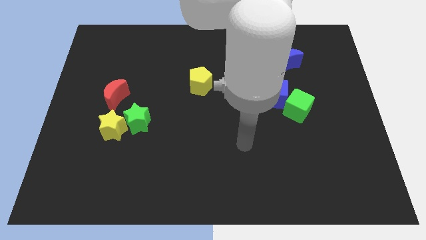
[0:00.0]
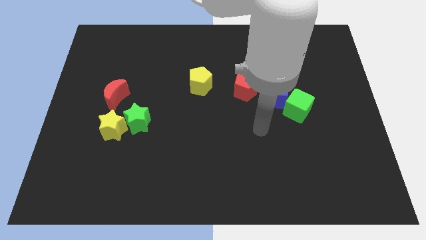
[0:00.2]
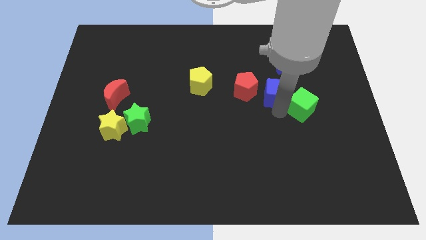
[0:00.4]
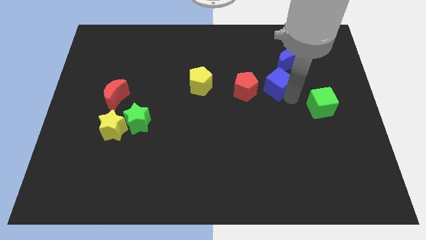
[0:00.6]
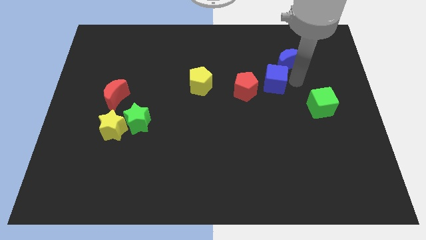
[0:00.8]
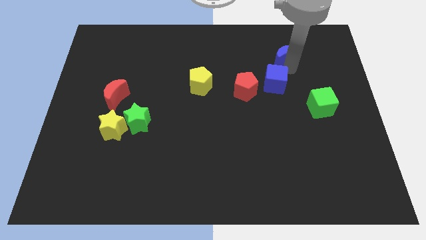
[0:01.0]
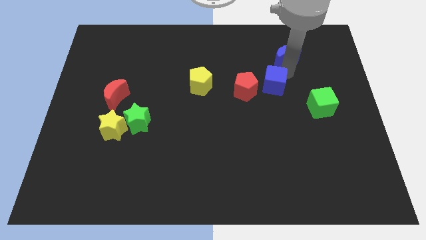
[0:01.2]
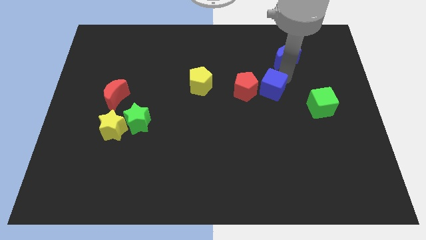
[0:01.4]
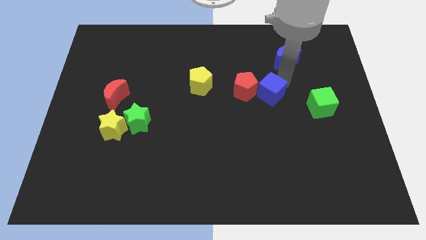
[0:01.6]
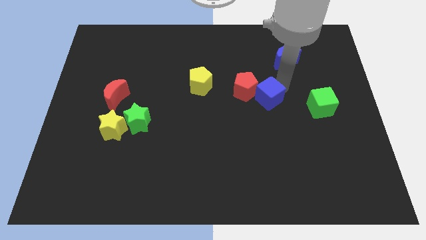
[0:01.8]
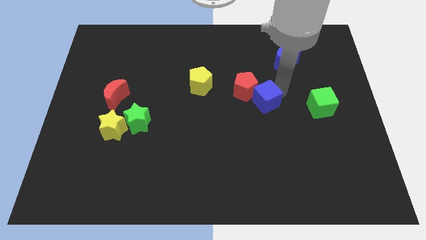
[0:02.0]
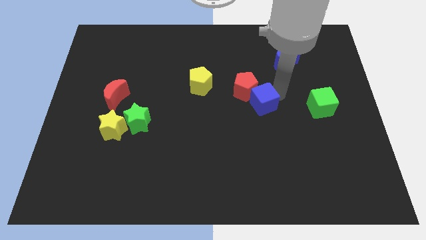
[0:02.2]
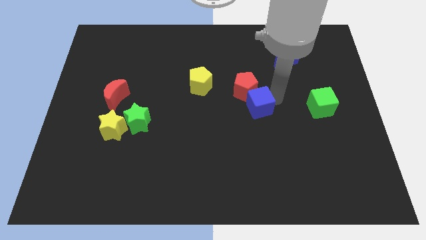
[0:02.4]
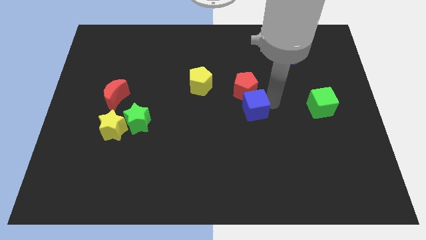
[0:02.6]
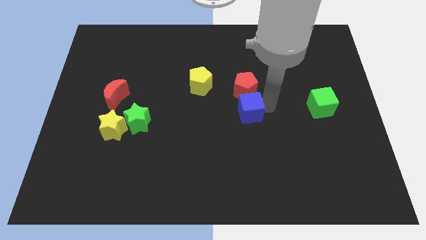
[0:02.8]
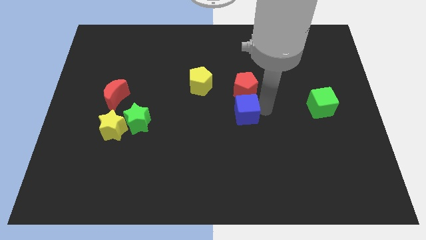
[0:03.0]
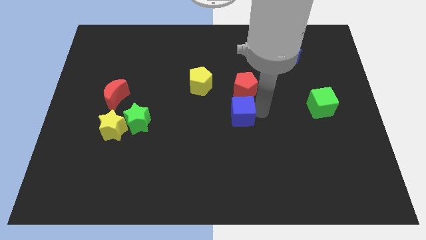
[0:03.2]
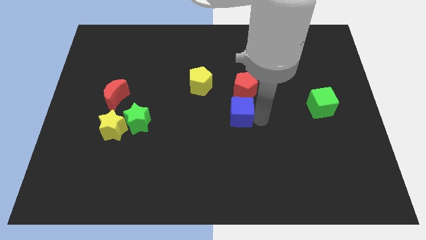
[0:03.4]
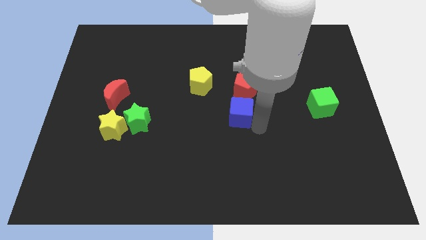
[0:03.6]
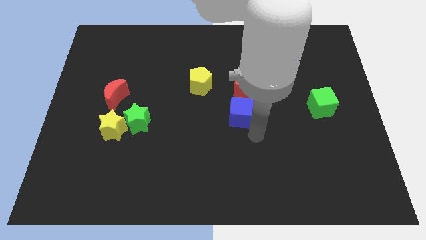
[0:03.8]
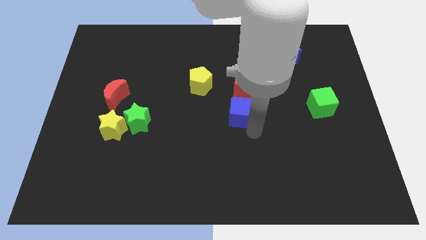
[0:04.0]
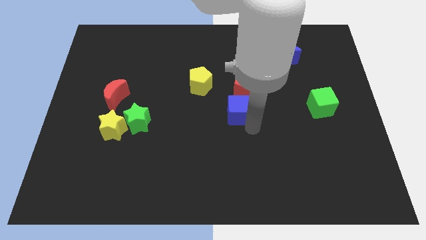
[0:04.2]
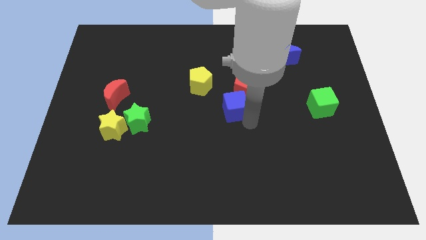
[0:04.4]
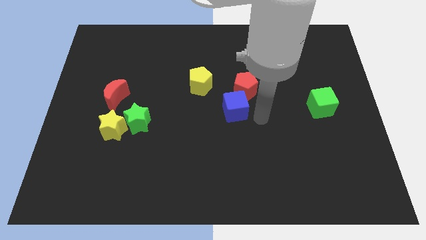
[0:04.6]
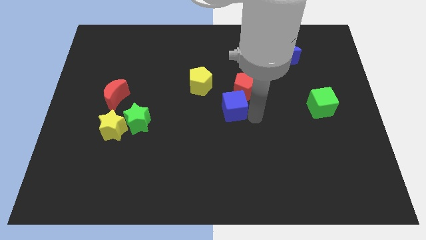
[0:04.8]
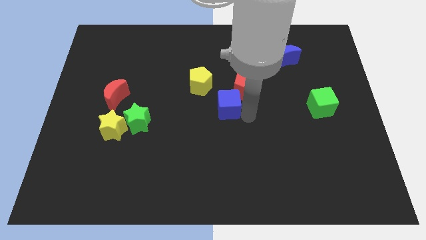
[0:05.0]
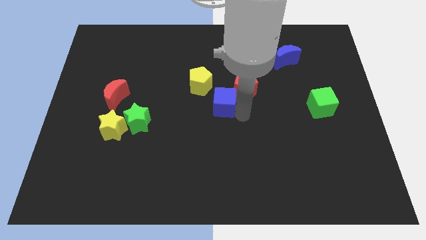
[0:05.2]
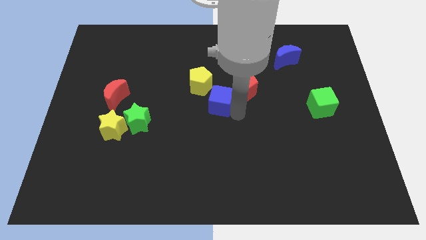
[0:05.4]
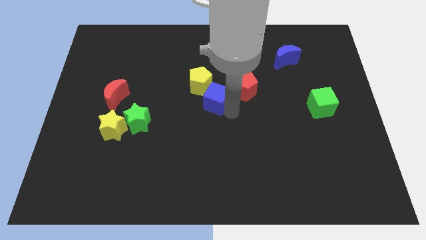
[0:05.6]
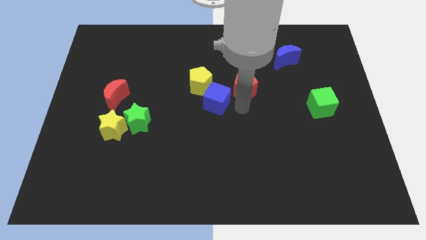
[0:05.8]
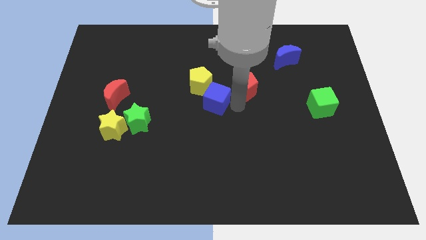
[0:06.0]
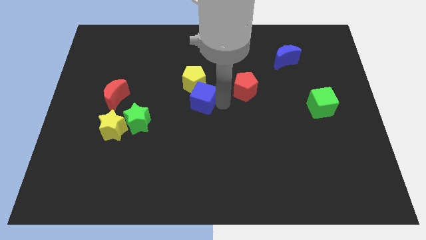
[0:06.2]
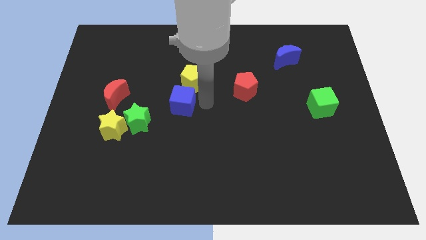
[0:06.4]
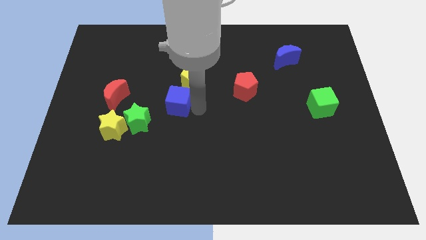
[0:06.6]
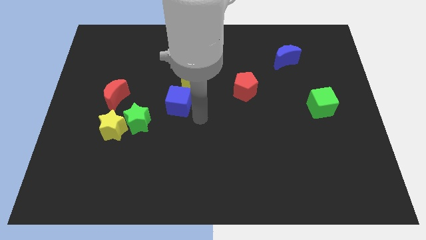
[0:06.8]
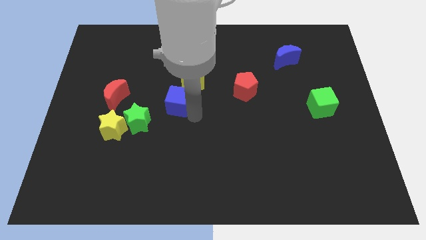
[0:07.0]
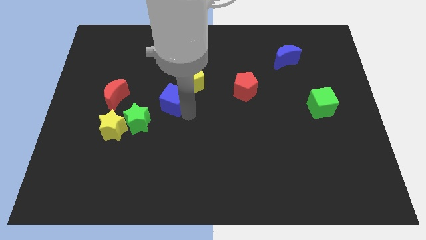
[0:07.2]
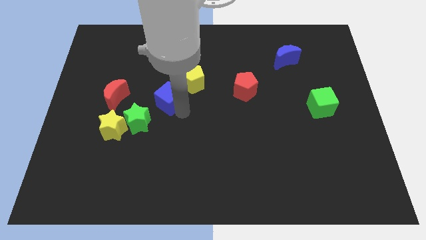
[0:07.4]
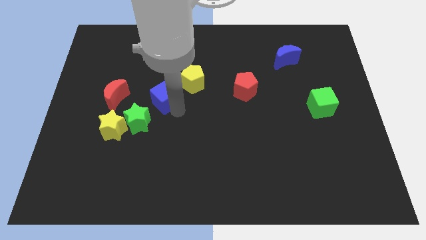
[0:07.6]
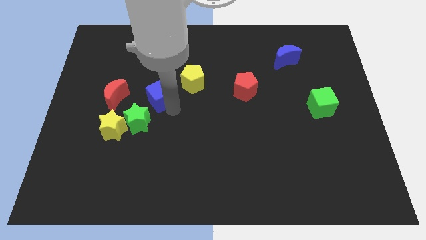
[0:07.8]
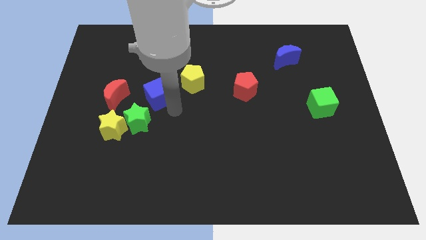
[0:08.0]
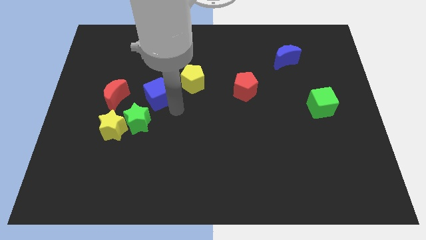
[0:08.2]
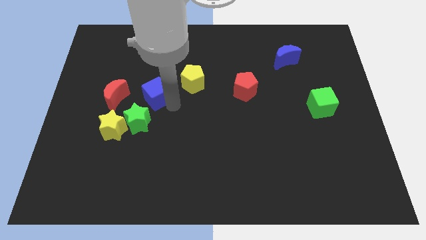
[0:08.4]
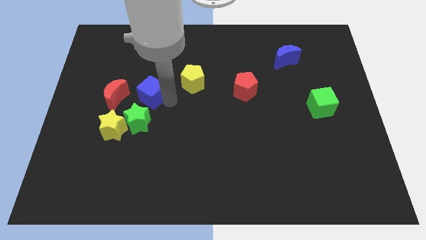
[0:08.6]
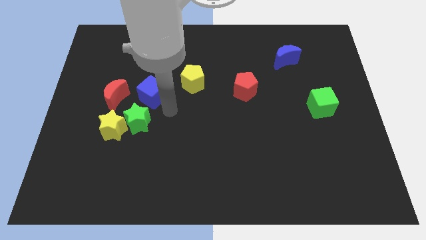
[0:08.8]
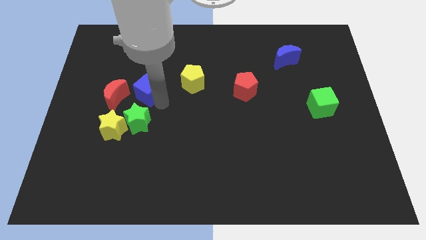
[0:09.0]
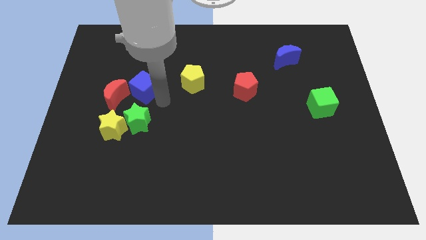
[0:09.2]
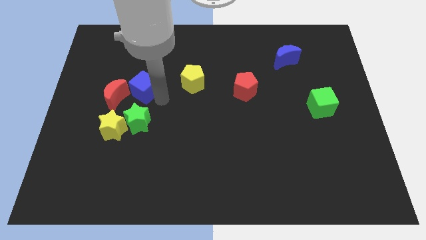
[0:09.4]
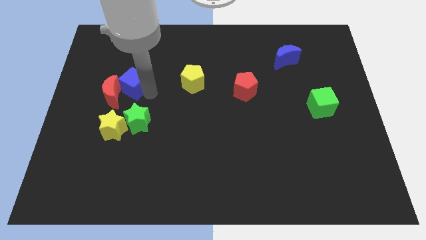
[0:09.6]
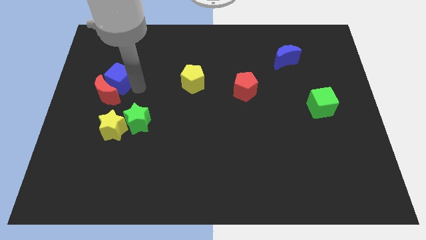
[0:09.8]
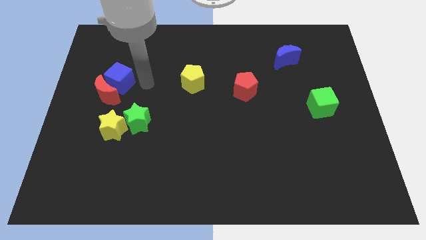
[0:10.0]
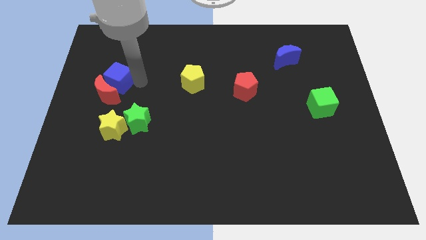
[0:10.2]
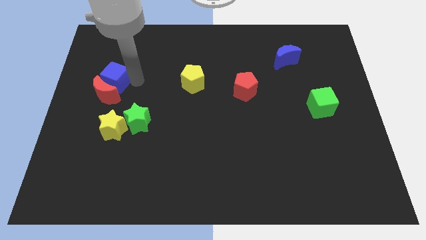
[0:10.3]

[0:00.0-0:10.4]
move the blue cube to the top left side of the red moon

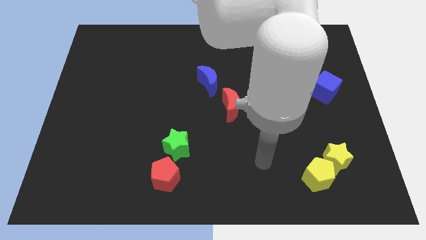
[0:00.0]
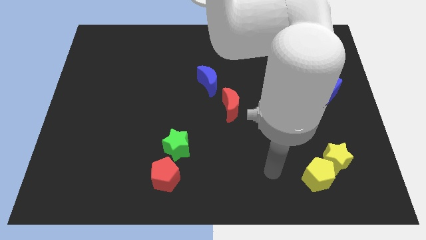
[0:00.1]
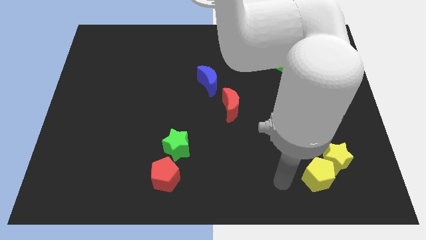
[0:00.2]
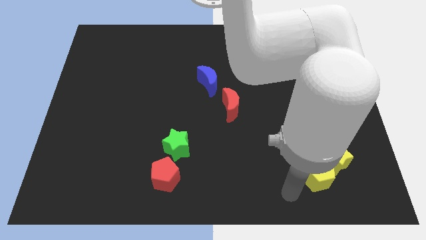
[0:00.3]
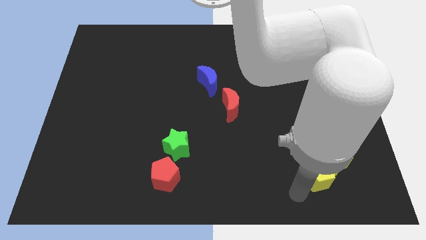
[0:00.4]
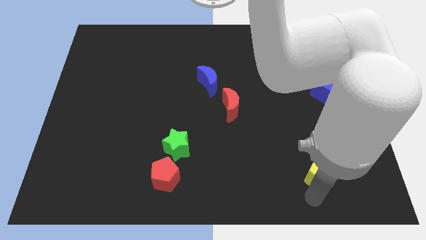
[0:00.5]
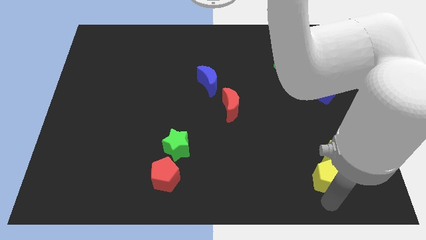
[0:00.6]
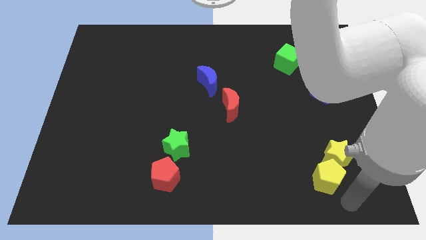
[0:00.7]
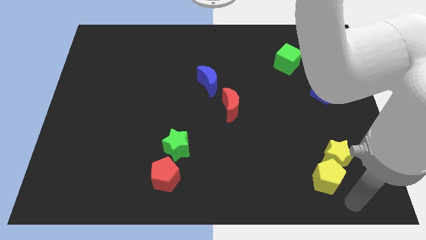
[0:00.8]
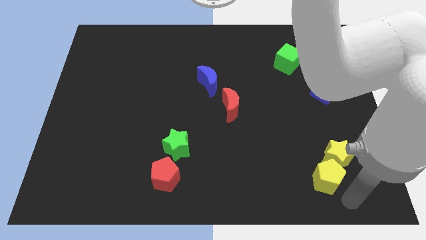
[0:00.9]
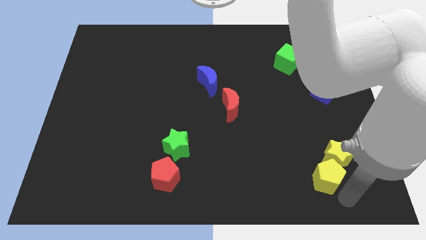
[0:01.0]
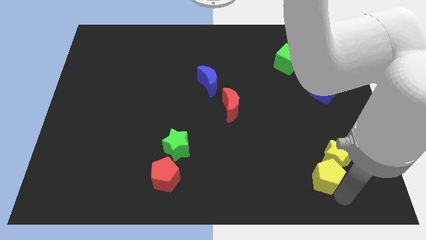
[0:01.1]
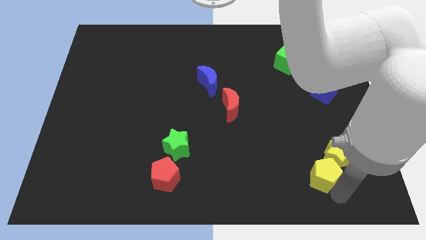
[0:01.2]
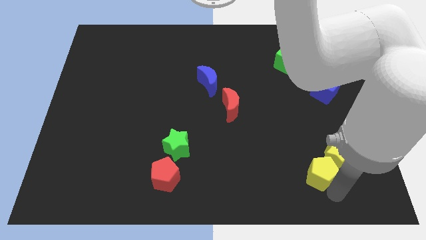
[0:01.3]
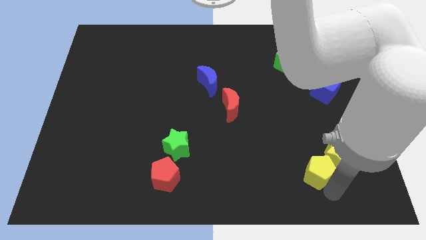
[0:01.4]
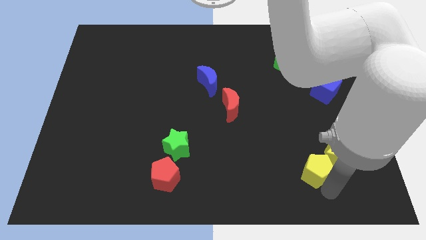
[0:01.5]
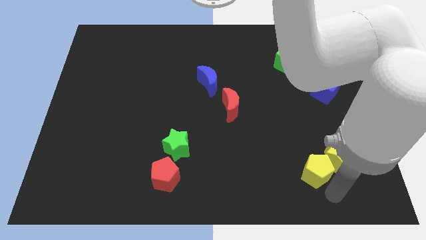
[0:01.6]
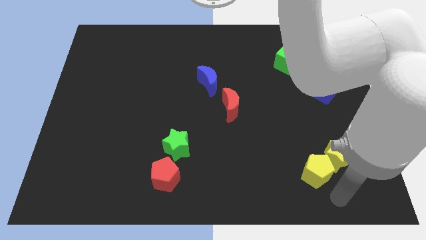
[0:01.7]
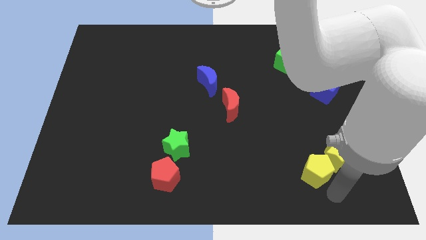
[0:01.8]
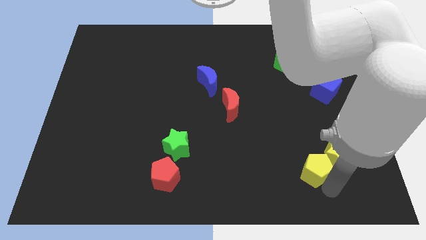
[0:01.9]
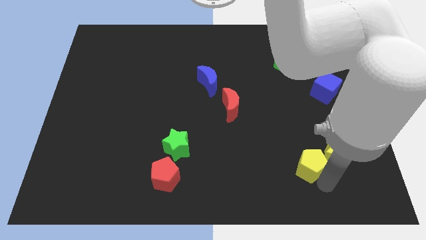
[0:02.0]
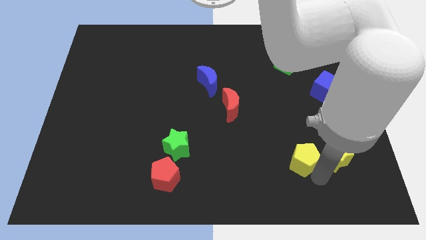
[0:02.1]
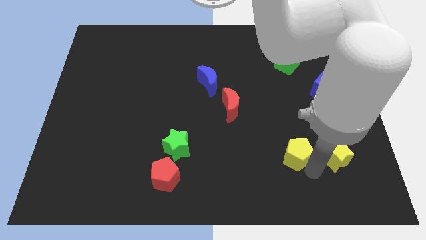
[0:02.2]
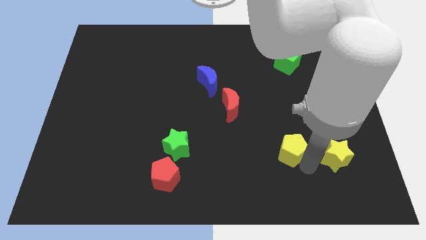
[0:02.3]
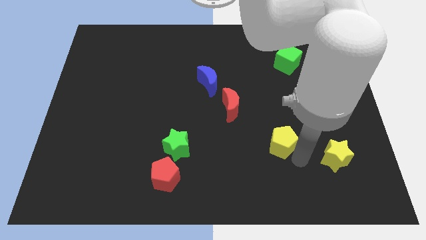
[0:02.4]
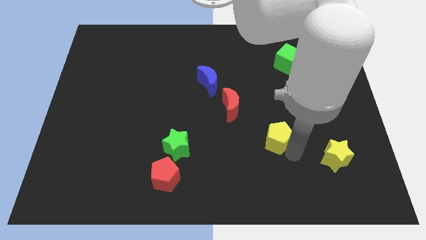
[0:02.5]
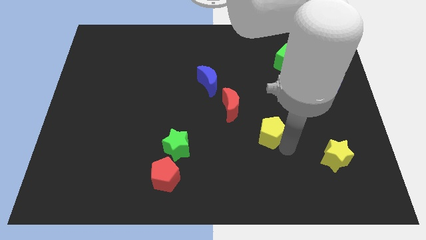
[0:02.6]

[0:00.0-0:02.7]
push the yellow pentagon to the bottom right of the red moon
